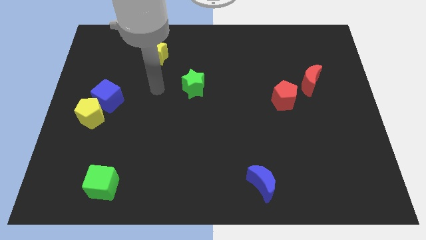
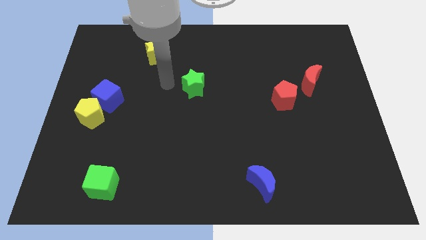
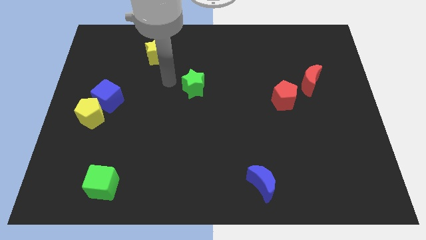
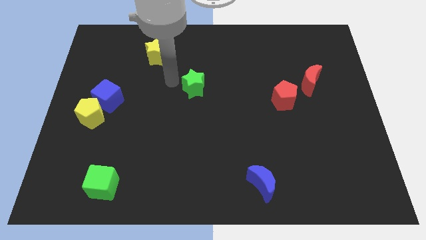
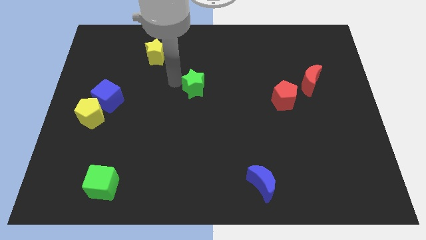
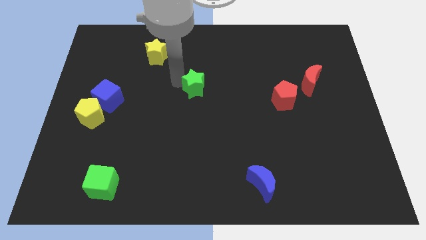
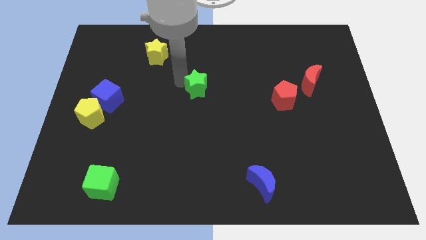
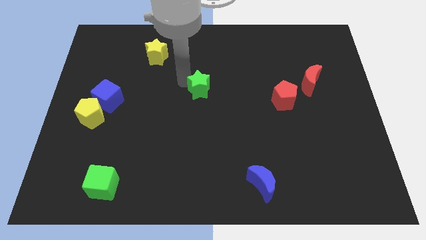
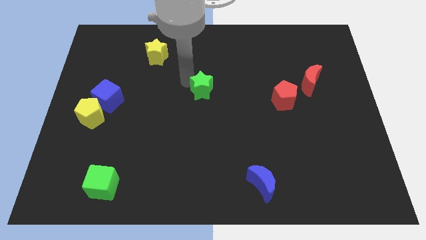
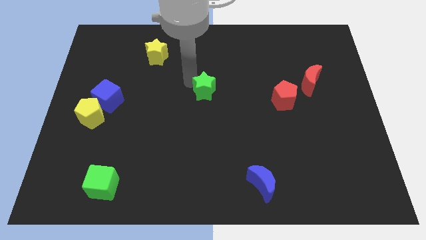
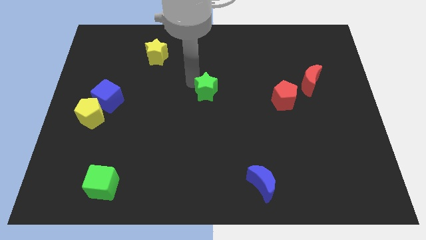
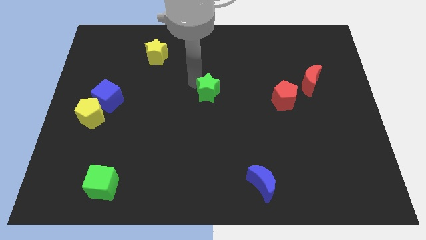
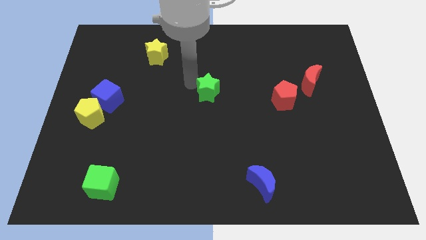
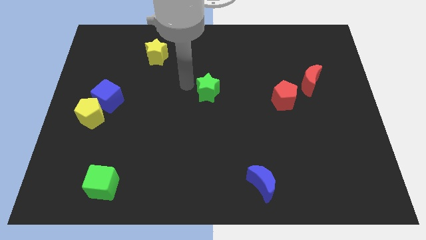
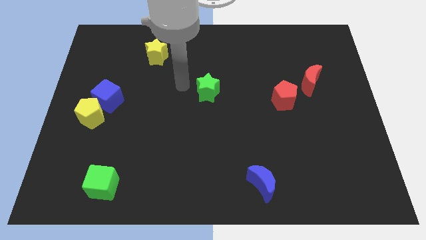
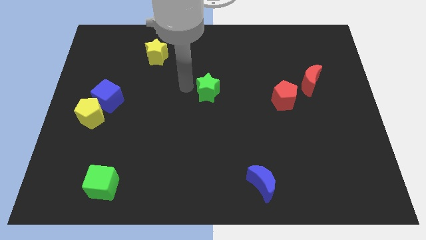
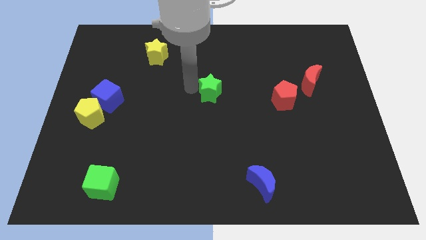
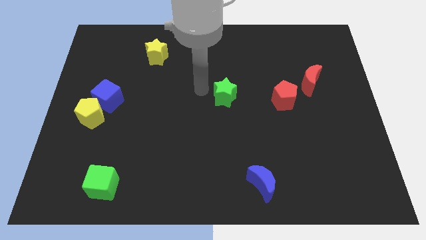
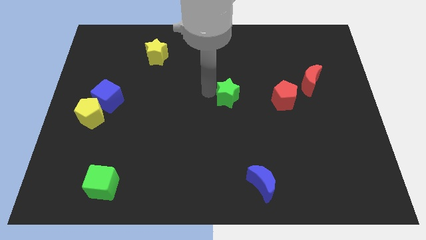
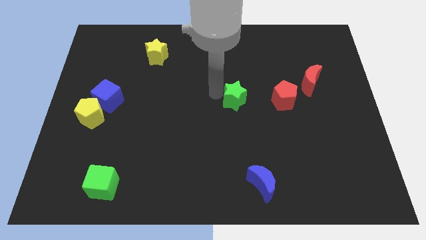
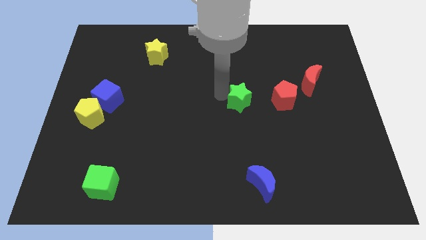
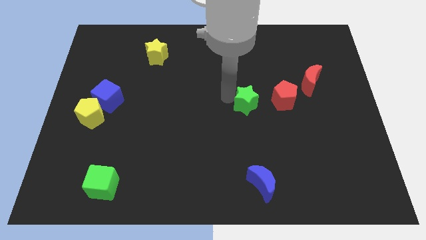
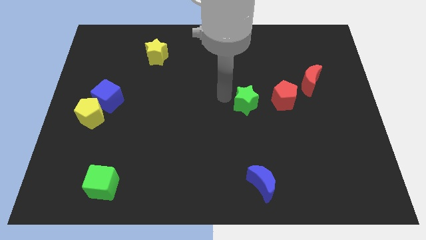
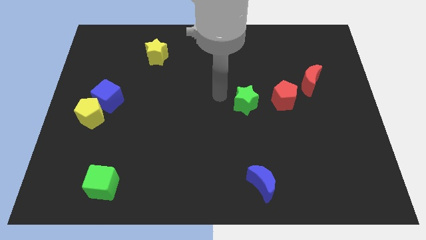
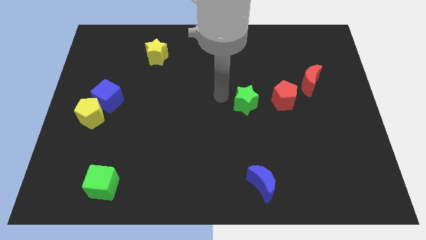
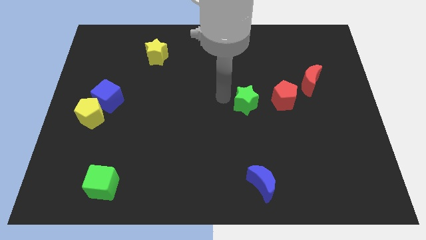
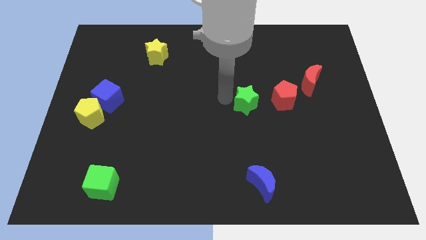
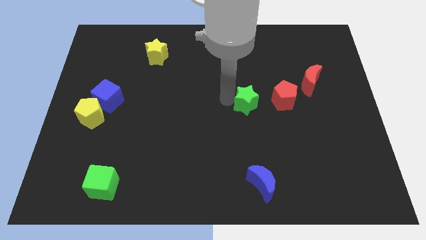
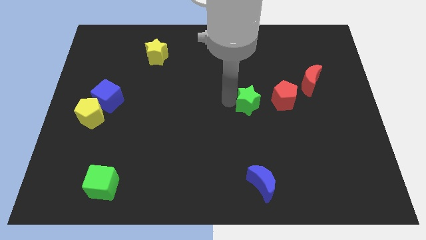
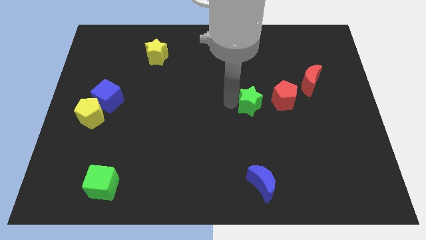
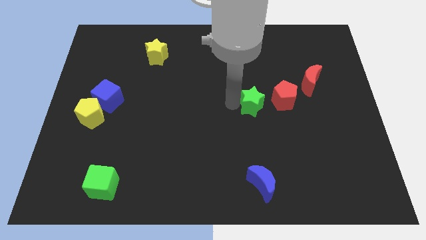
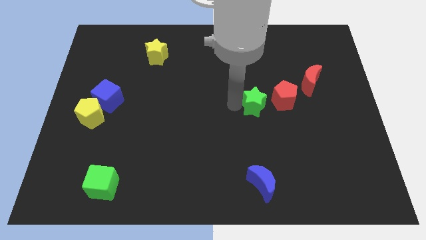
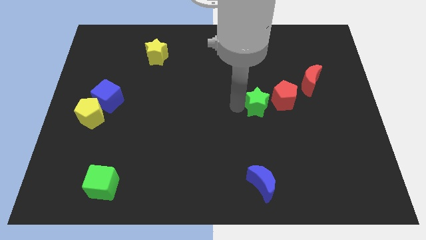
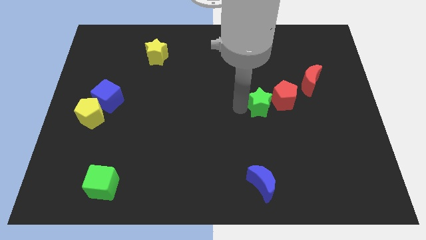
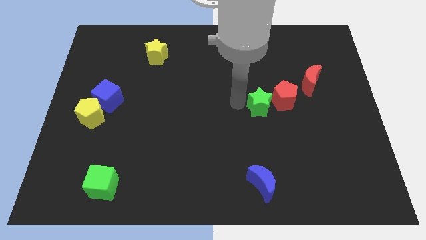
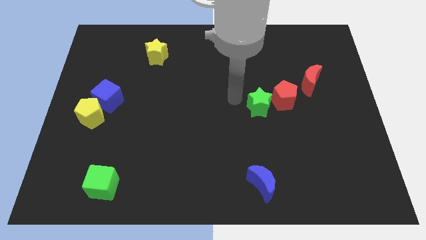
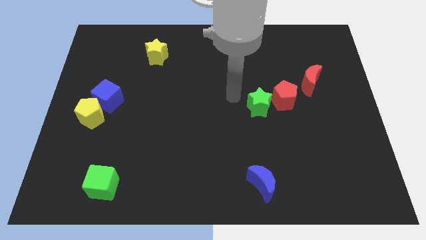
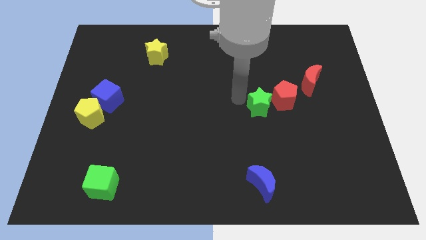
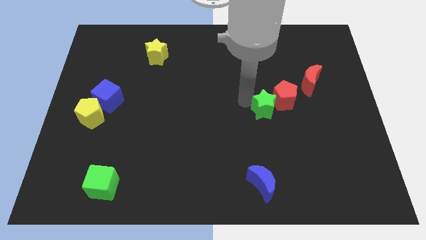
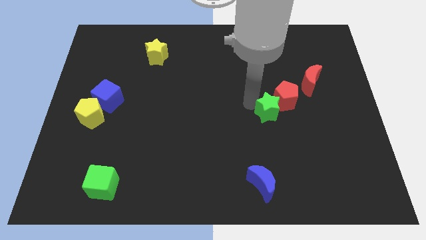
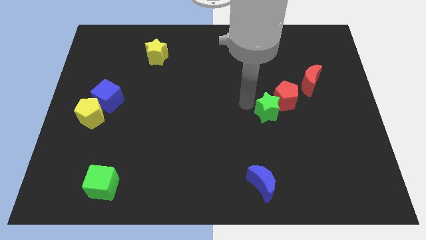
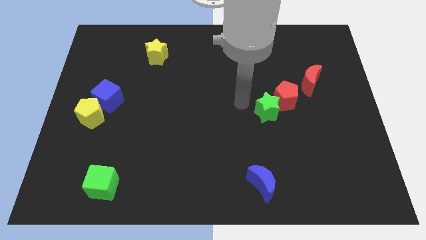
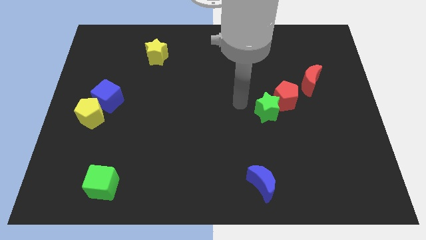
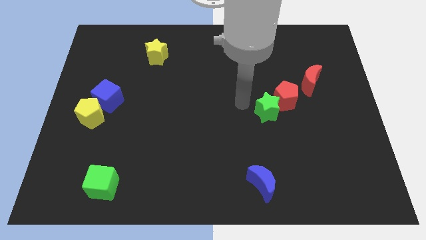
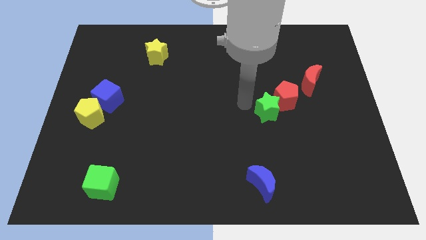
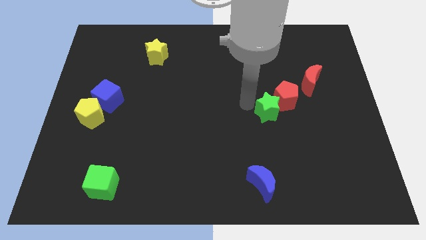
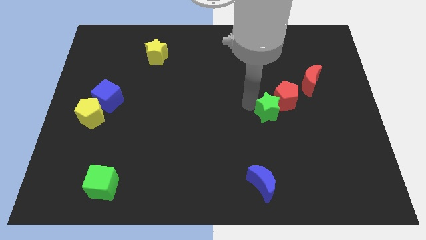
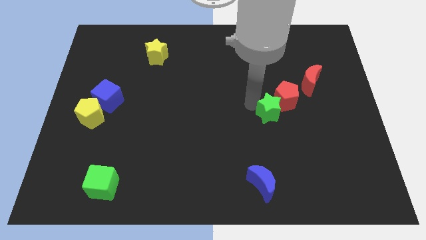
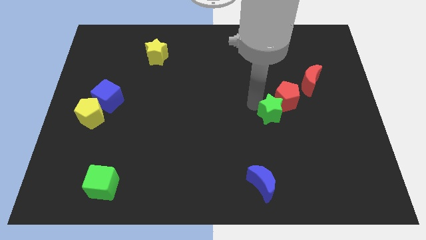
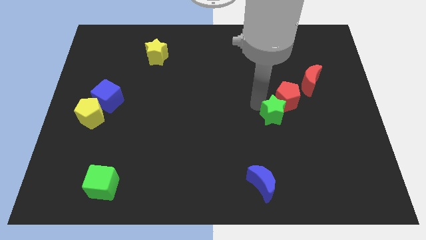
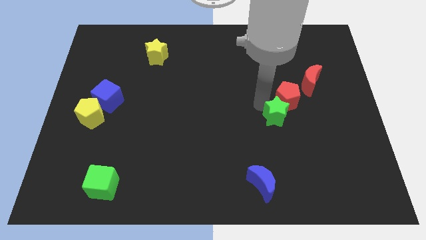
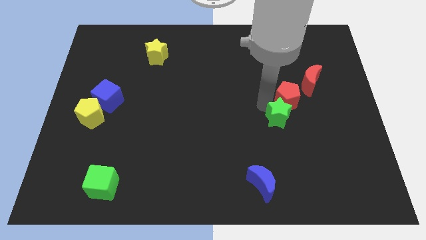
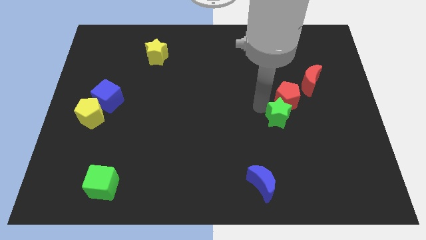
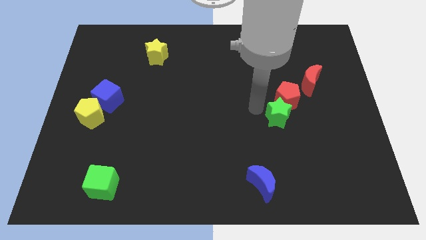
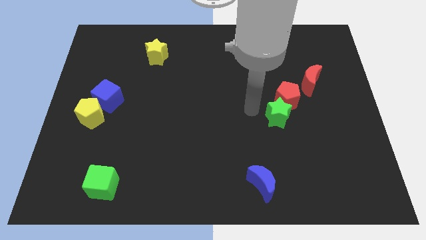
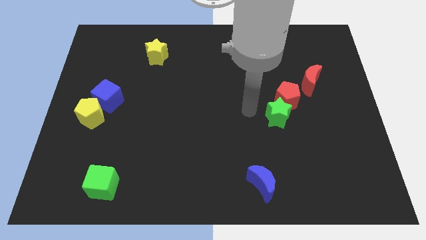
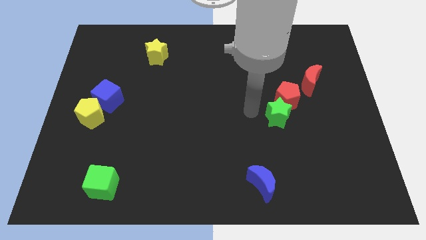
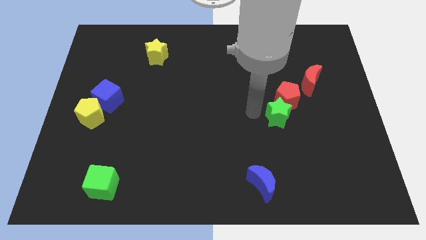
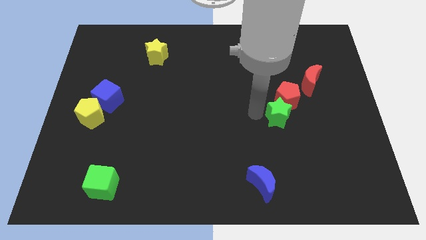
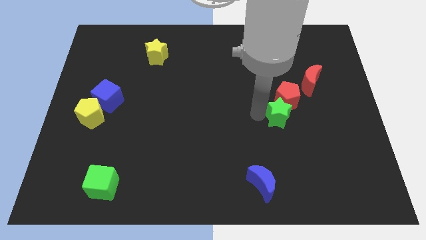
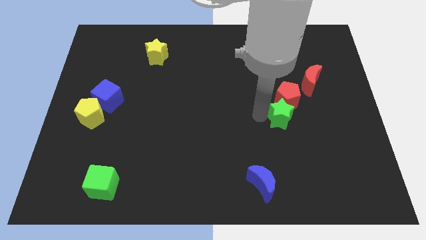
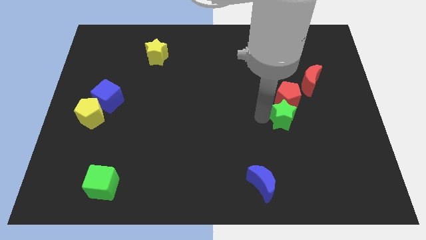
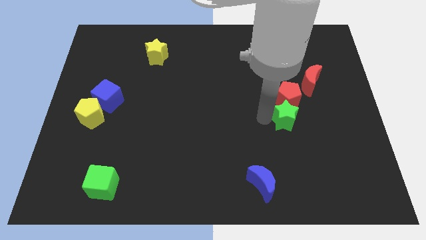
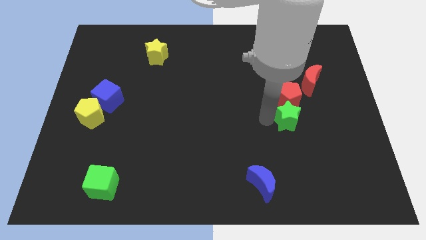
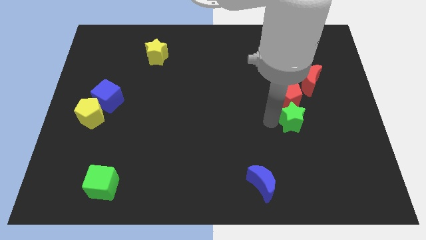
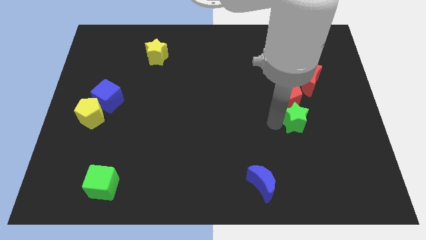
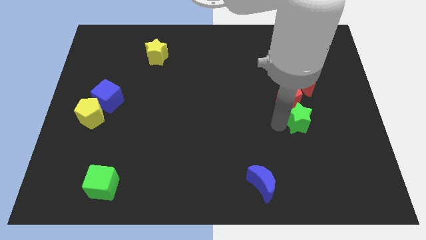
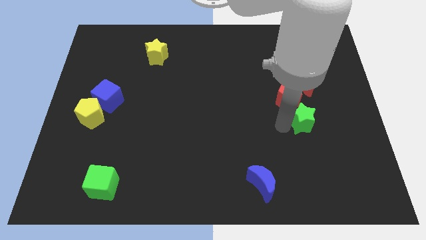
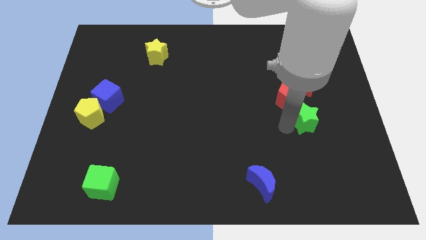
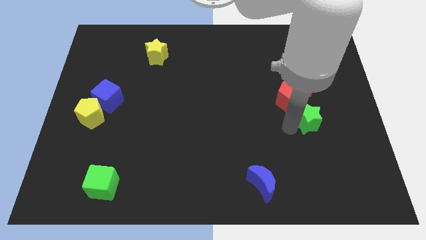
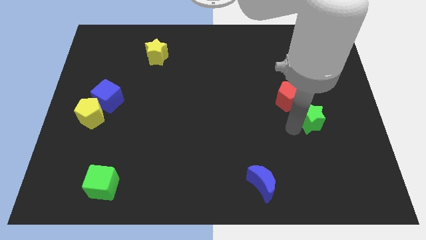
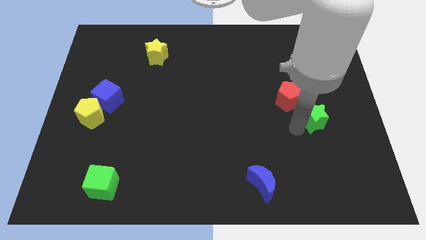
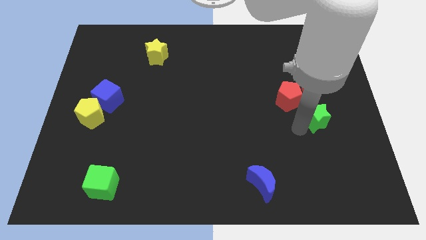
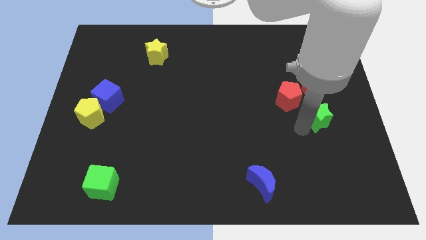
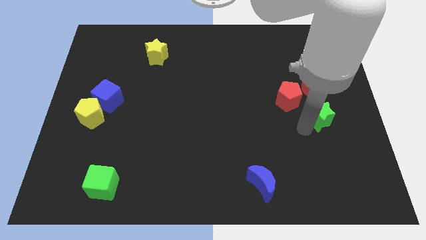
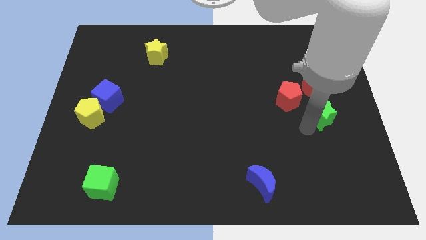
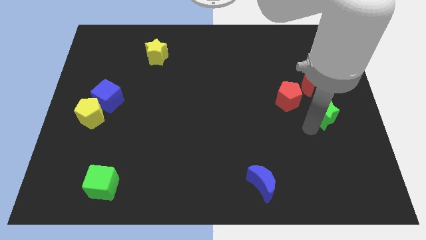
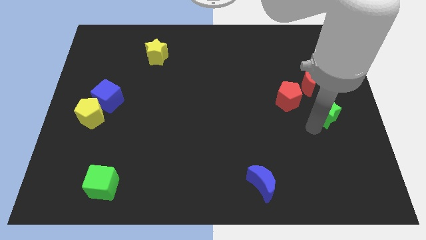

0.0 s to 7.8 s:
slide the green star to the center right
